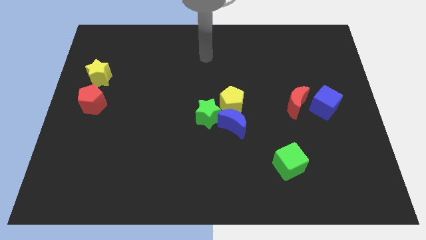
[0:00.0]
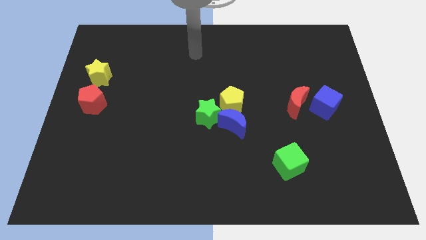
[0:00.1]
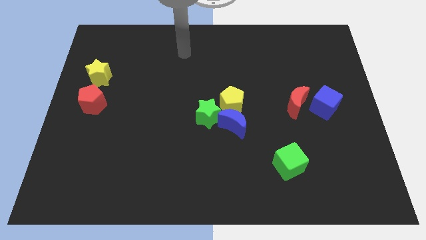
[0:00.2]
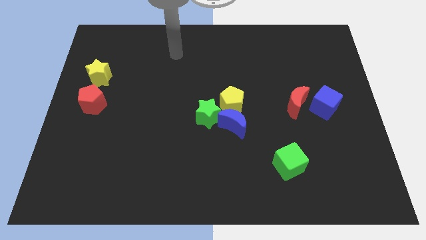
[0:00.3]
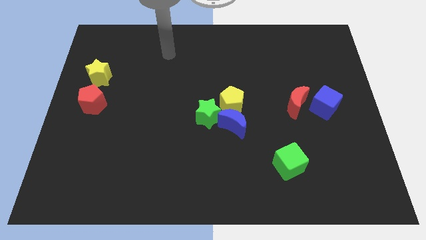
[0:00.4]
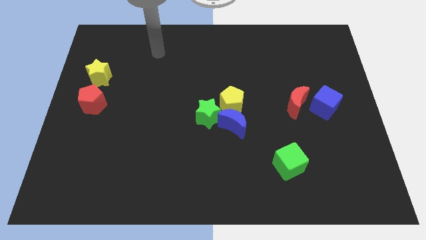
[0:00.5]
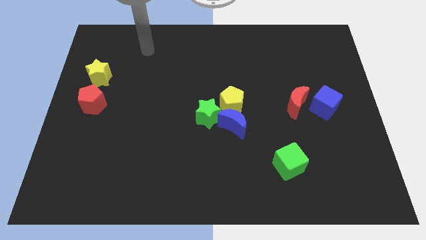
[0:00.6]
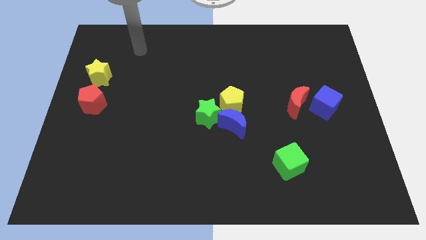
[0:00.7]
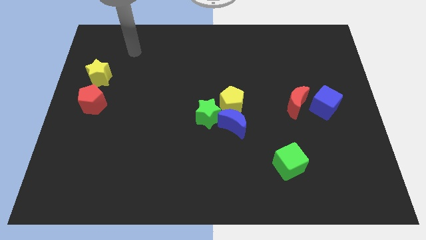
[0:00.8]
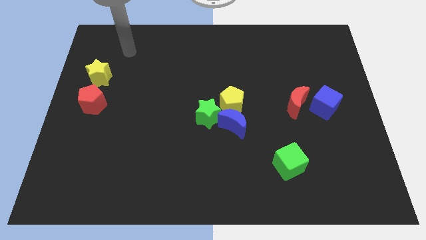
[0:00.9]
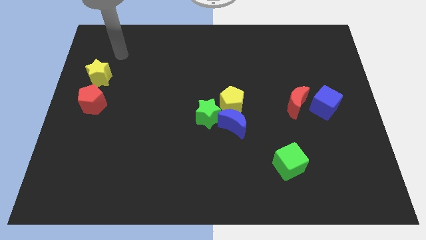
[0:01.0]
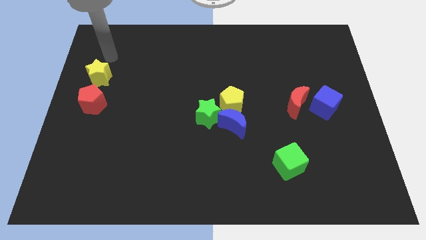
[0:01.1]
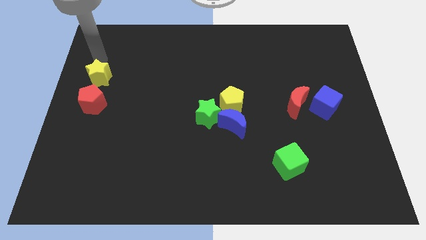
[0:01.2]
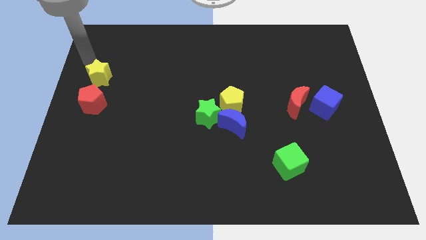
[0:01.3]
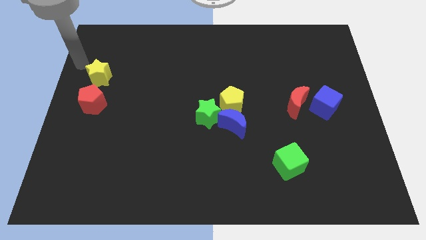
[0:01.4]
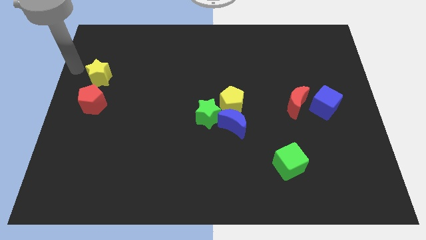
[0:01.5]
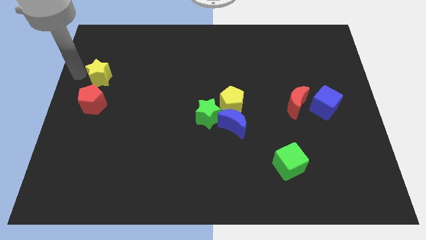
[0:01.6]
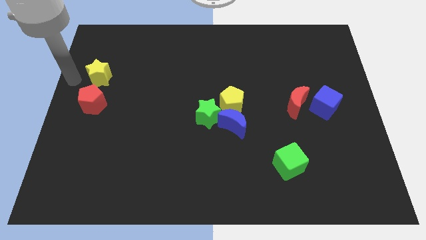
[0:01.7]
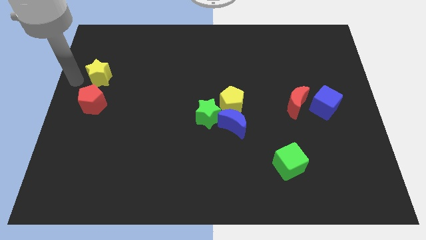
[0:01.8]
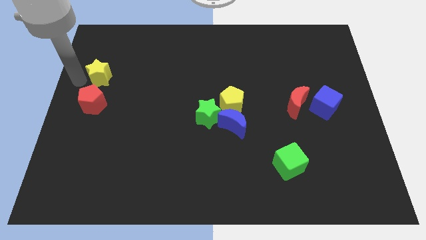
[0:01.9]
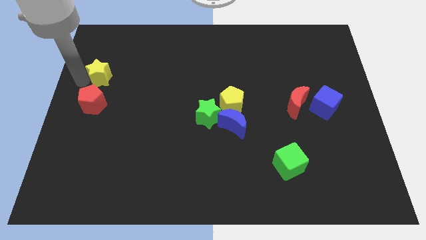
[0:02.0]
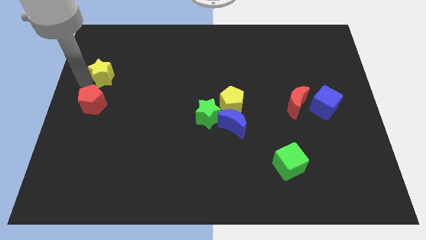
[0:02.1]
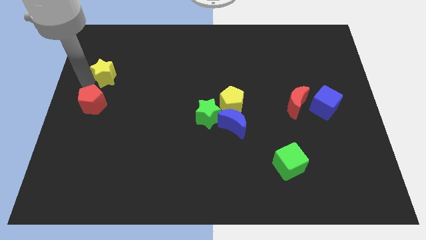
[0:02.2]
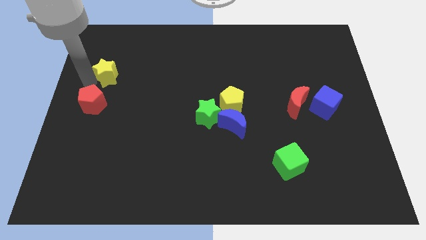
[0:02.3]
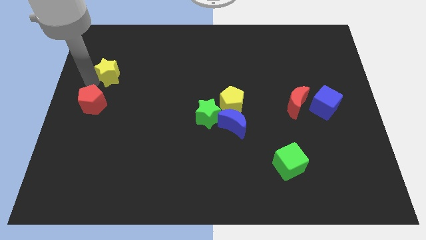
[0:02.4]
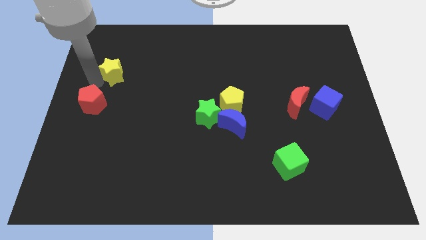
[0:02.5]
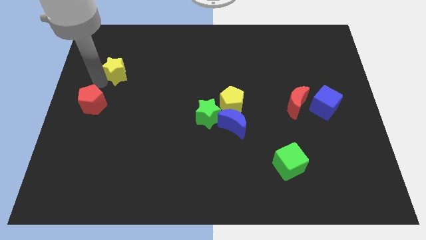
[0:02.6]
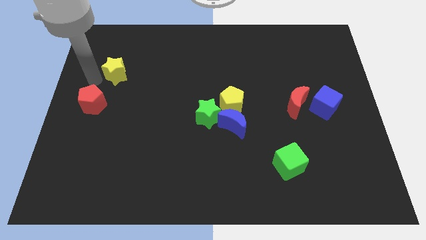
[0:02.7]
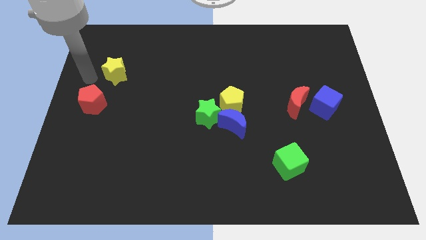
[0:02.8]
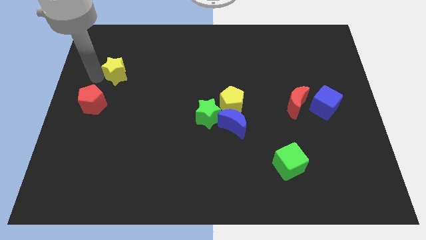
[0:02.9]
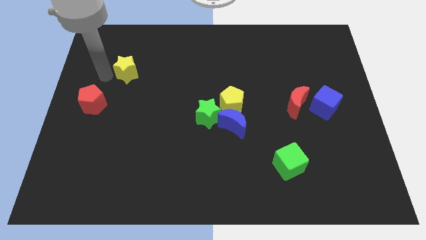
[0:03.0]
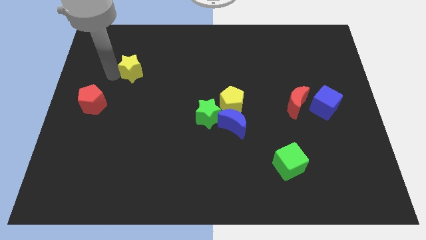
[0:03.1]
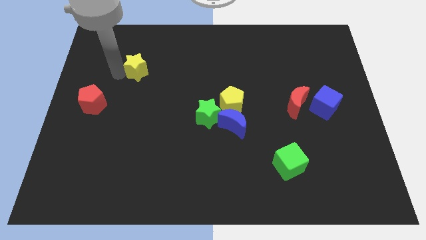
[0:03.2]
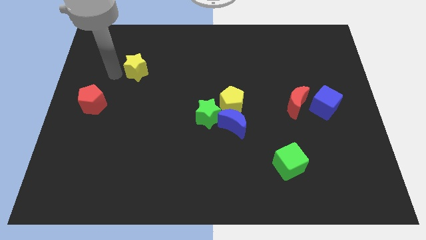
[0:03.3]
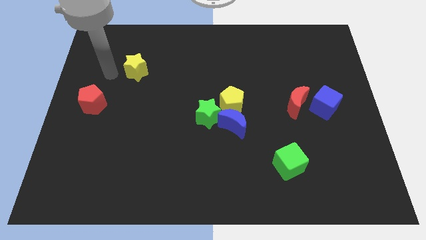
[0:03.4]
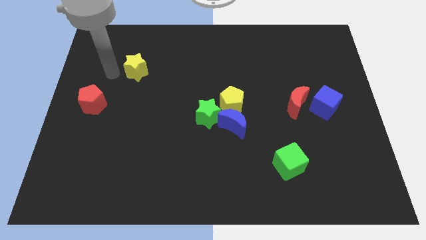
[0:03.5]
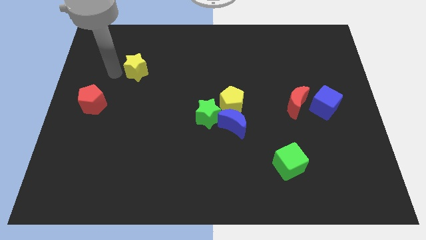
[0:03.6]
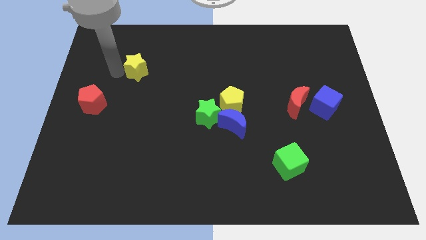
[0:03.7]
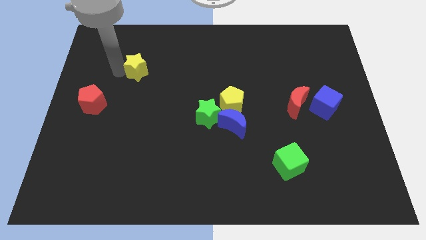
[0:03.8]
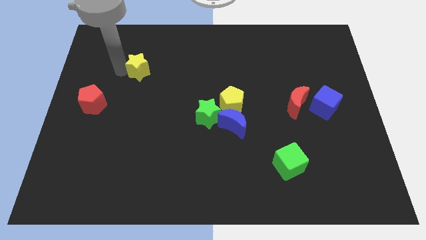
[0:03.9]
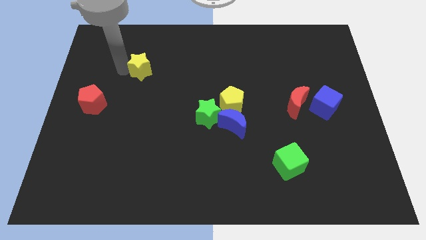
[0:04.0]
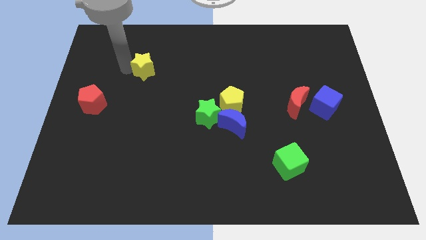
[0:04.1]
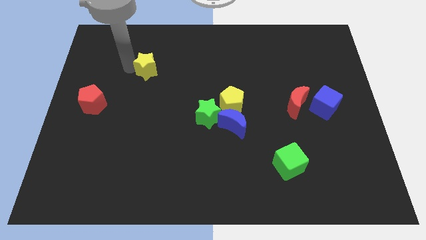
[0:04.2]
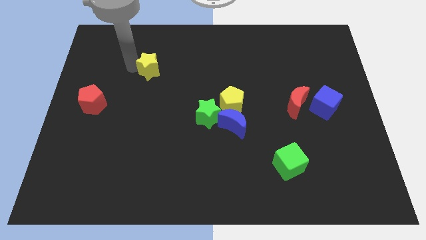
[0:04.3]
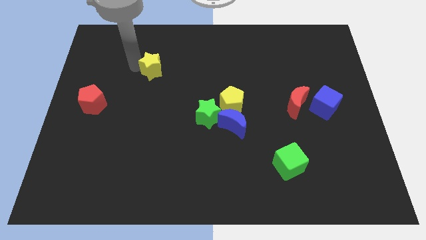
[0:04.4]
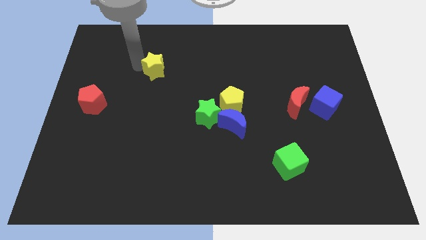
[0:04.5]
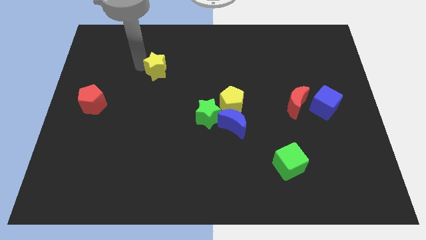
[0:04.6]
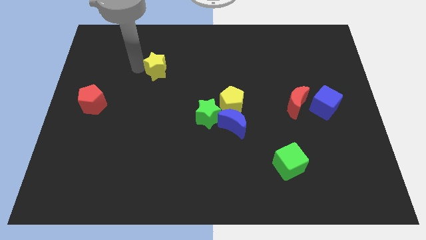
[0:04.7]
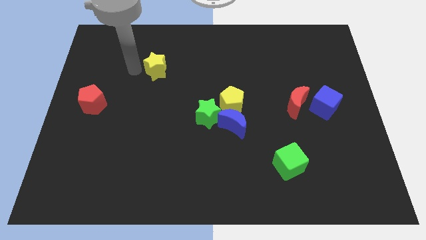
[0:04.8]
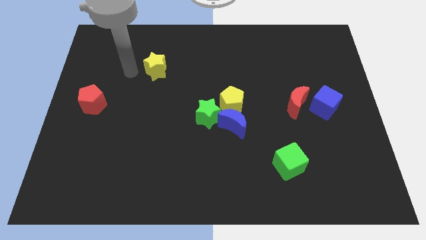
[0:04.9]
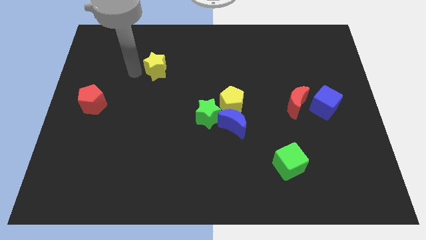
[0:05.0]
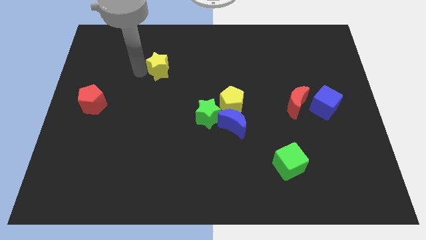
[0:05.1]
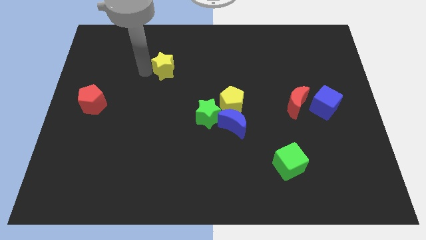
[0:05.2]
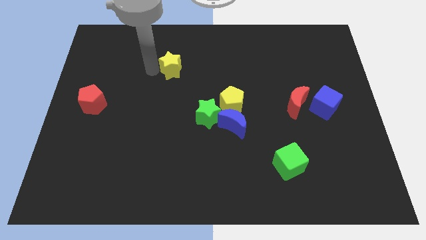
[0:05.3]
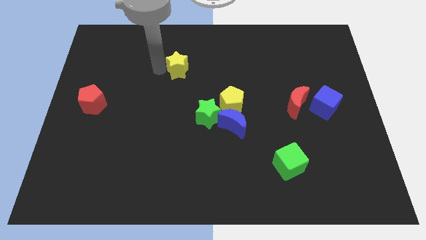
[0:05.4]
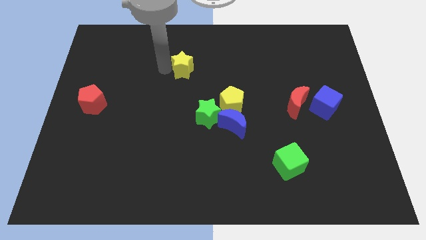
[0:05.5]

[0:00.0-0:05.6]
slide the yellow star to the right

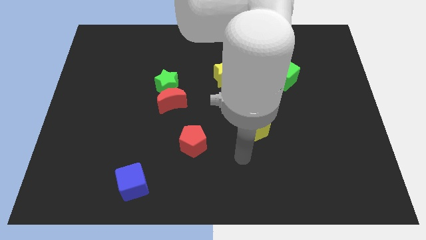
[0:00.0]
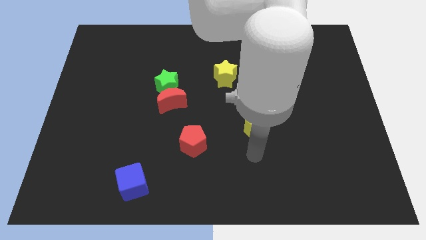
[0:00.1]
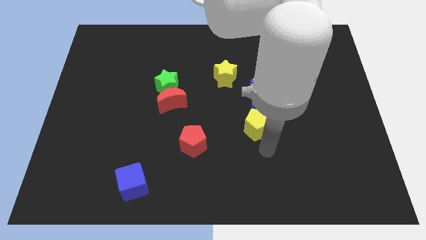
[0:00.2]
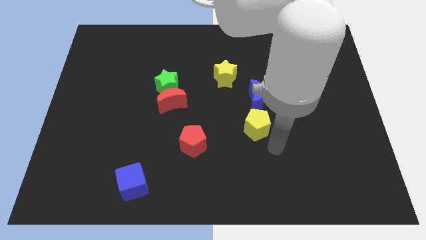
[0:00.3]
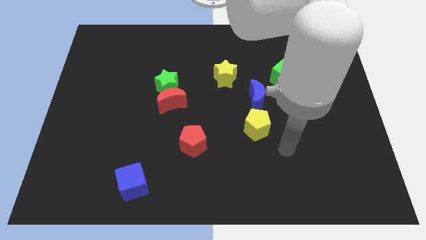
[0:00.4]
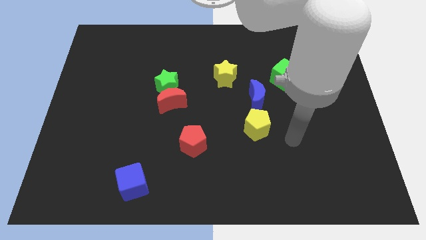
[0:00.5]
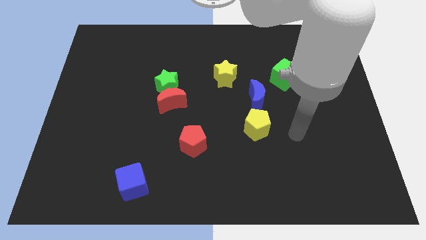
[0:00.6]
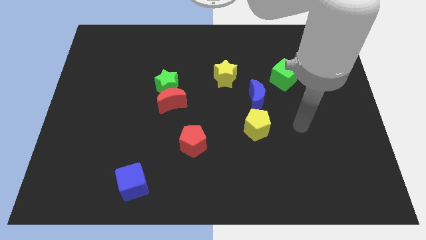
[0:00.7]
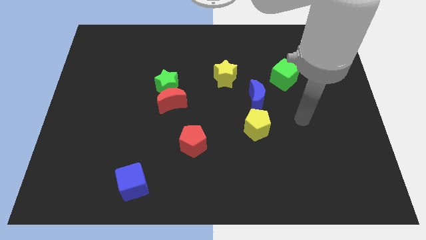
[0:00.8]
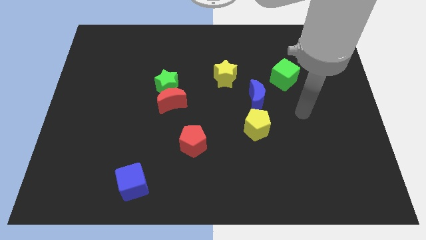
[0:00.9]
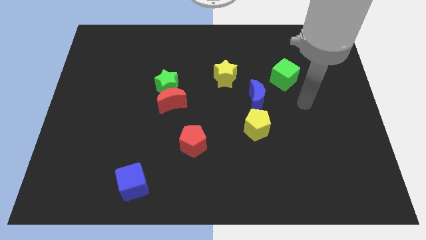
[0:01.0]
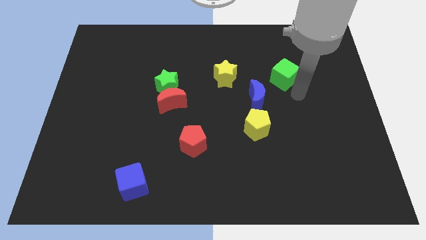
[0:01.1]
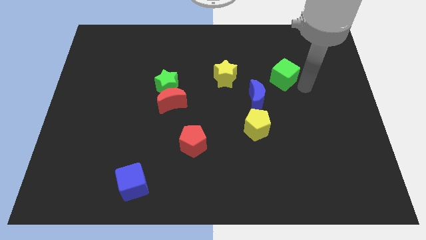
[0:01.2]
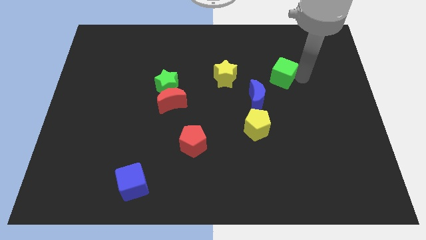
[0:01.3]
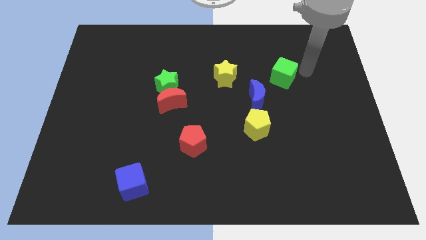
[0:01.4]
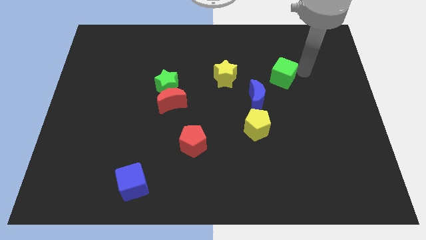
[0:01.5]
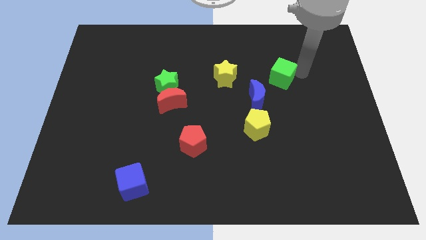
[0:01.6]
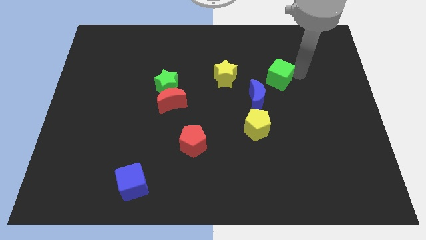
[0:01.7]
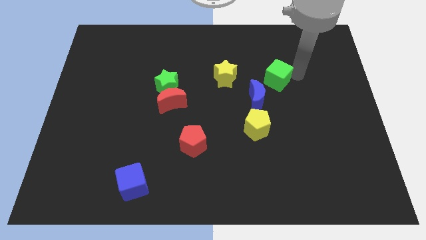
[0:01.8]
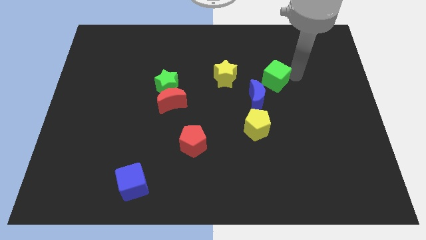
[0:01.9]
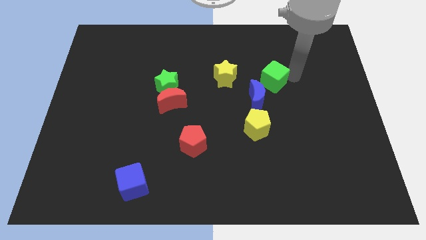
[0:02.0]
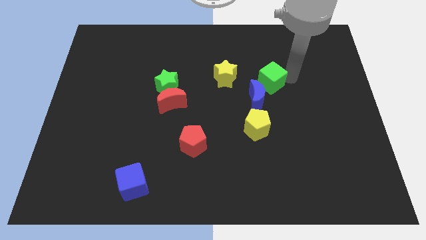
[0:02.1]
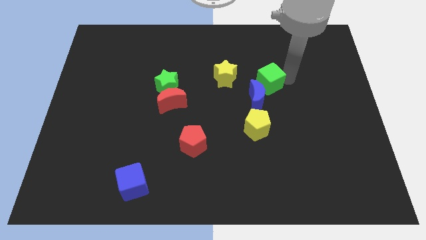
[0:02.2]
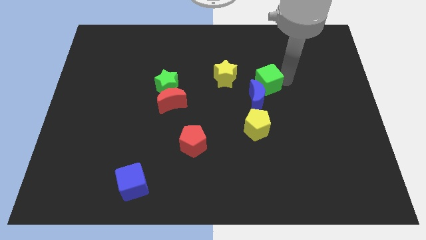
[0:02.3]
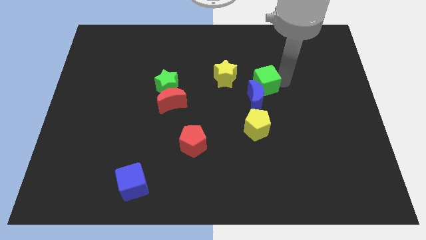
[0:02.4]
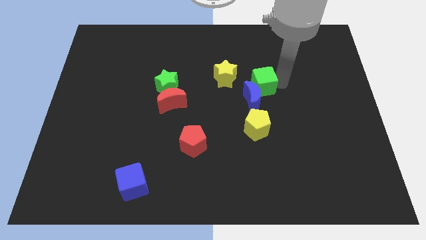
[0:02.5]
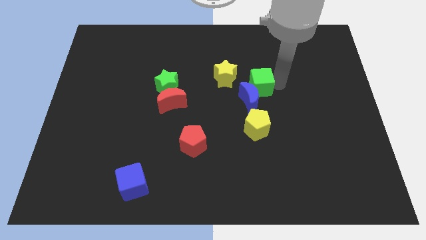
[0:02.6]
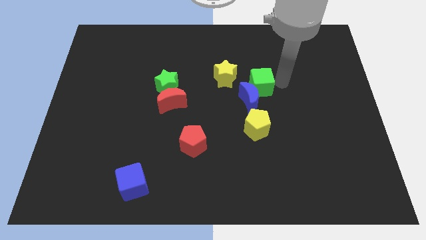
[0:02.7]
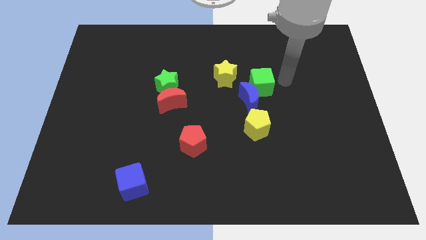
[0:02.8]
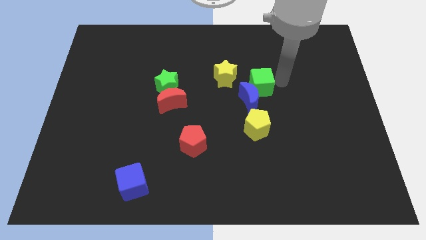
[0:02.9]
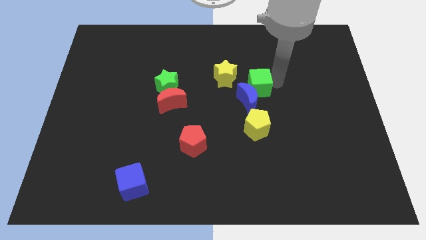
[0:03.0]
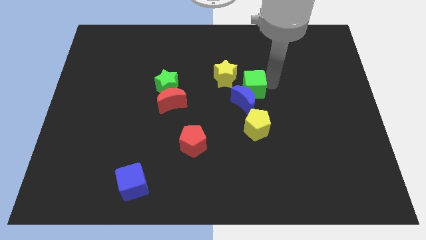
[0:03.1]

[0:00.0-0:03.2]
slightly move the green cube down and left diagonally
